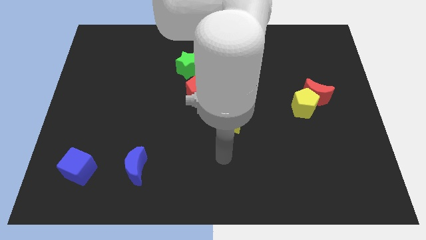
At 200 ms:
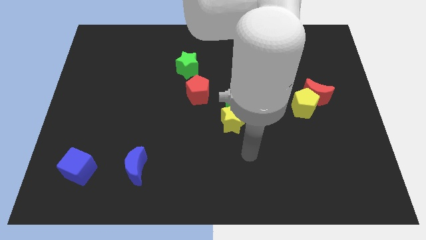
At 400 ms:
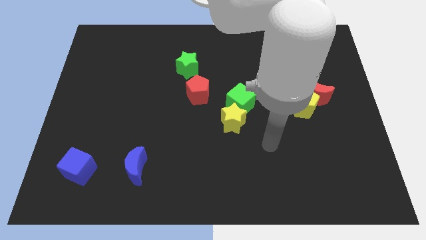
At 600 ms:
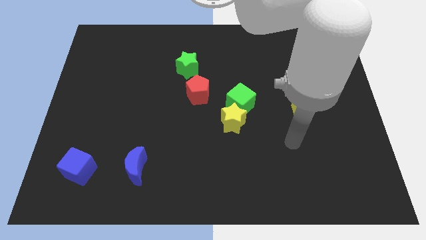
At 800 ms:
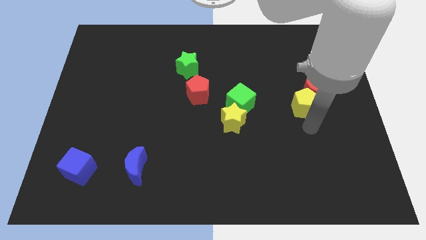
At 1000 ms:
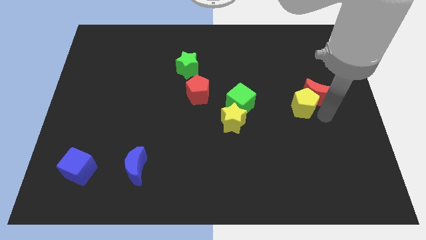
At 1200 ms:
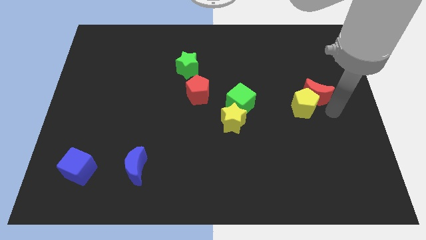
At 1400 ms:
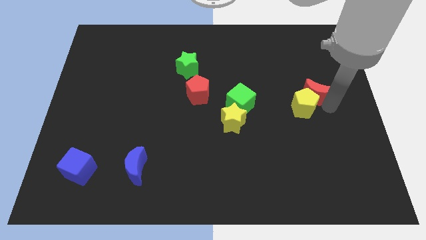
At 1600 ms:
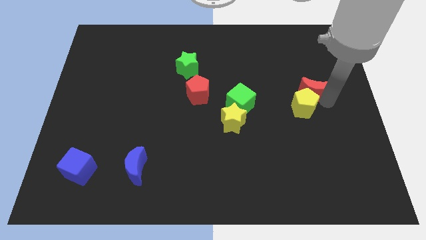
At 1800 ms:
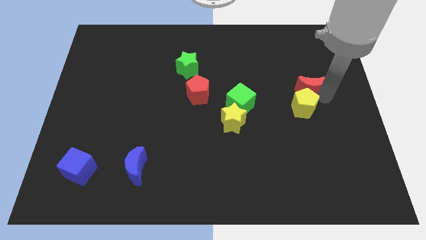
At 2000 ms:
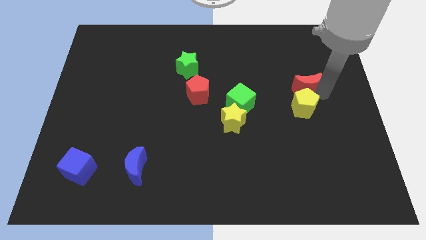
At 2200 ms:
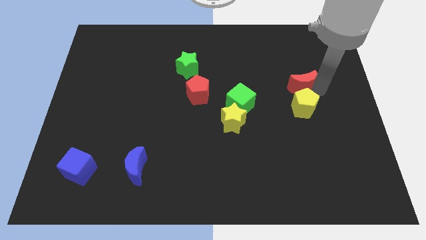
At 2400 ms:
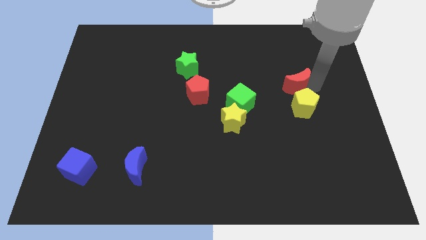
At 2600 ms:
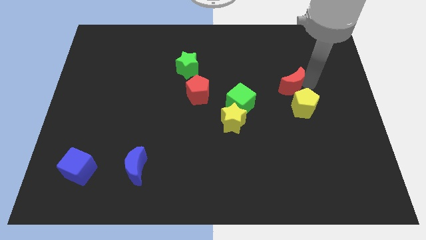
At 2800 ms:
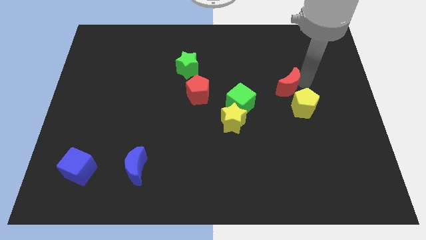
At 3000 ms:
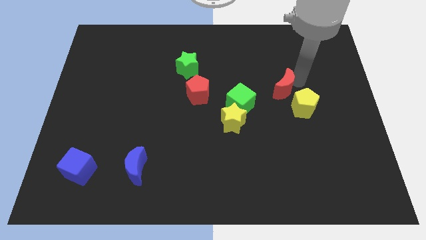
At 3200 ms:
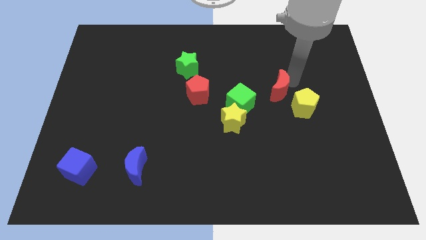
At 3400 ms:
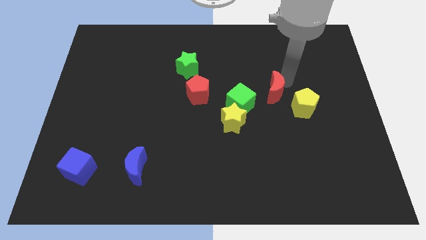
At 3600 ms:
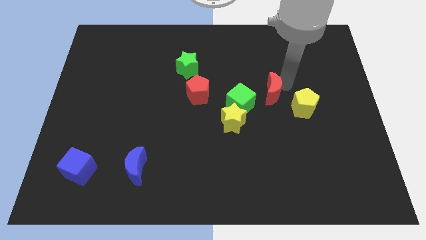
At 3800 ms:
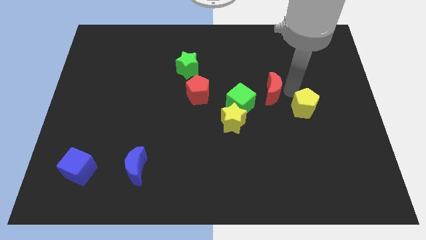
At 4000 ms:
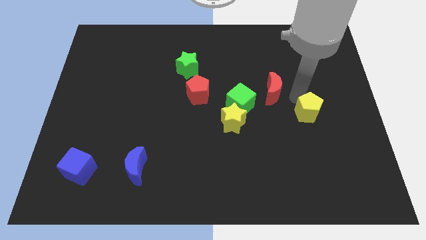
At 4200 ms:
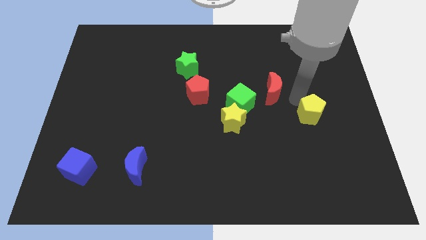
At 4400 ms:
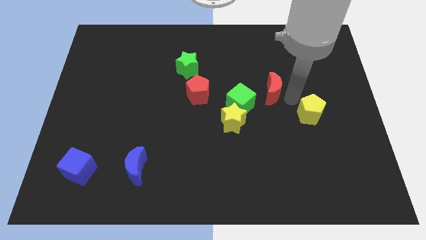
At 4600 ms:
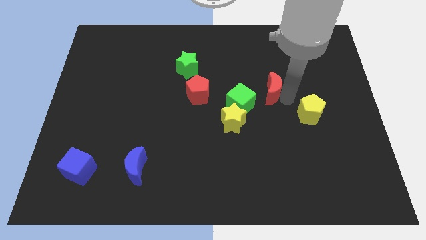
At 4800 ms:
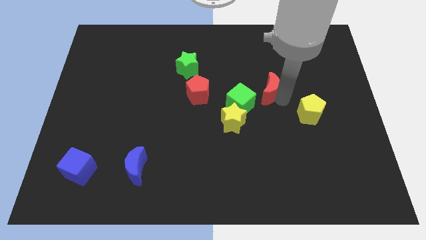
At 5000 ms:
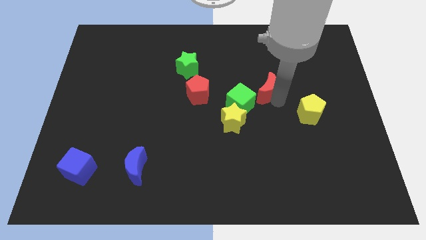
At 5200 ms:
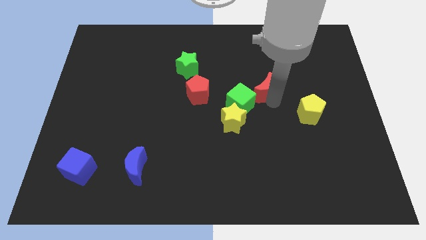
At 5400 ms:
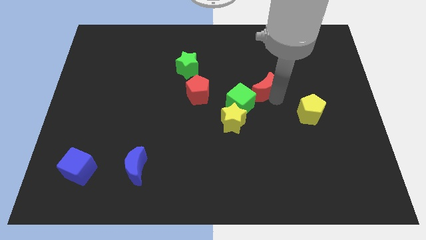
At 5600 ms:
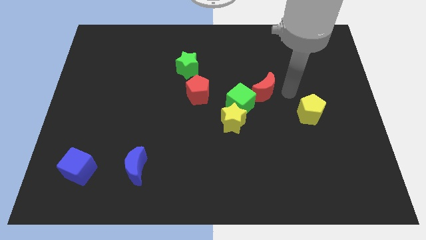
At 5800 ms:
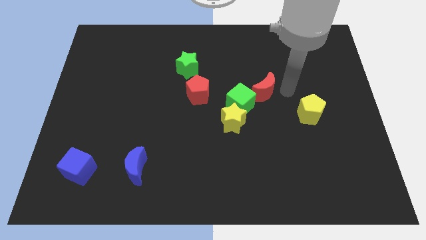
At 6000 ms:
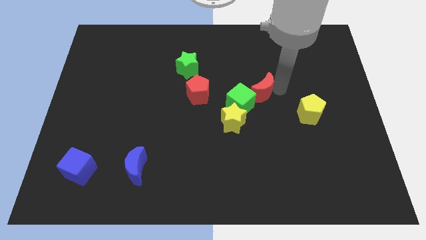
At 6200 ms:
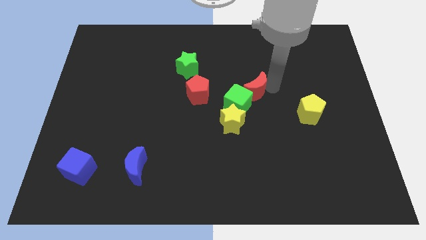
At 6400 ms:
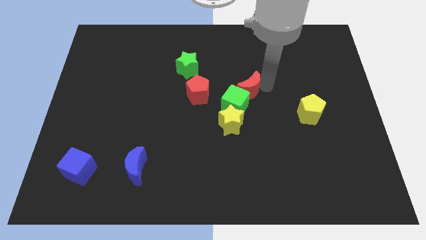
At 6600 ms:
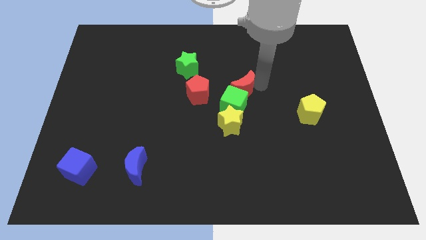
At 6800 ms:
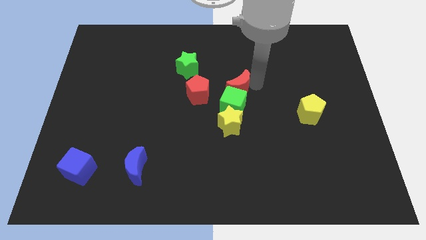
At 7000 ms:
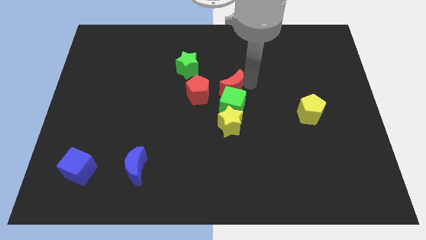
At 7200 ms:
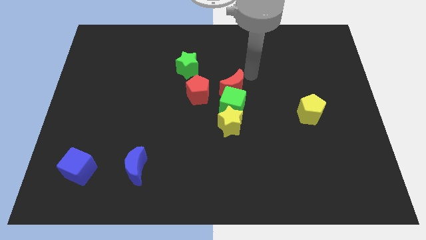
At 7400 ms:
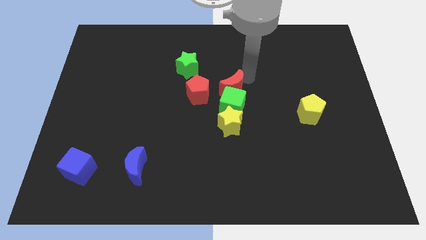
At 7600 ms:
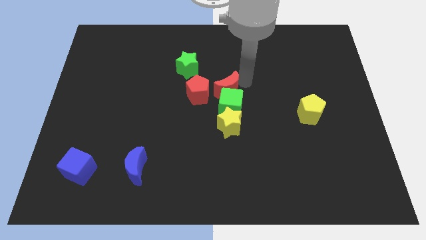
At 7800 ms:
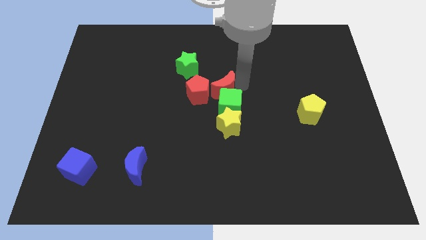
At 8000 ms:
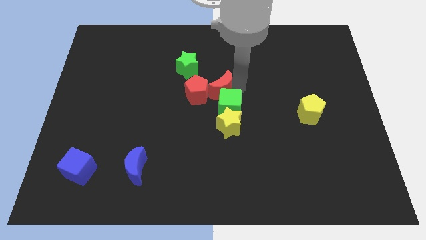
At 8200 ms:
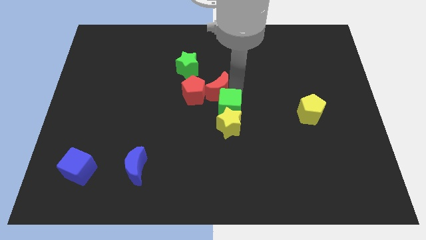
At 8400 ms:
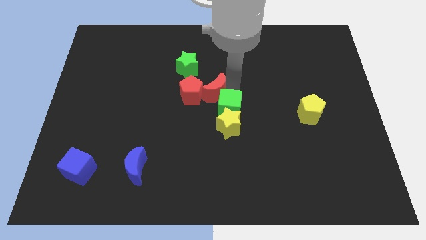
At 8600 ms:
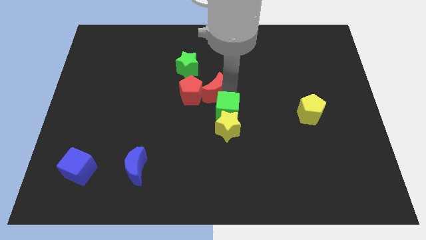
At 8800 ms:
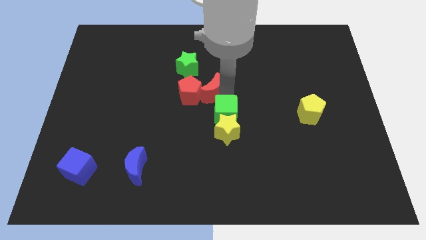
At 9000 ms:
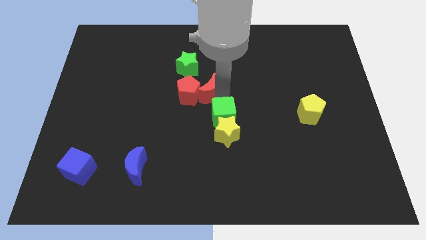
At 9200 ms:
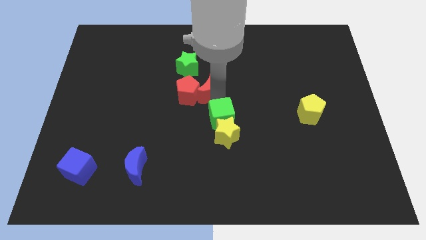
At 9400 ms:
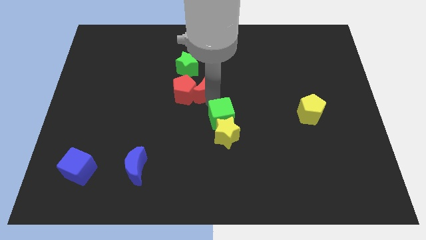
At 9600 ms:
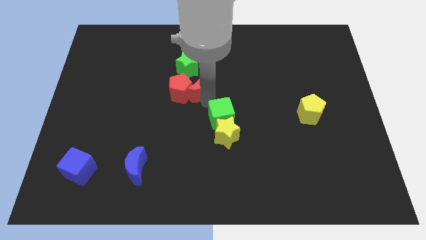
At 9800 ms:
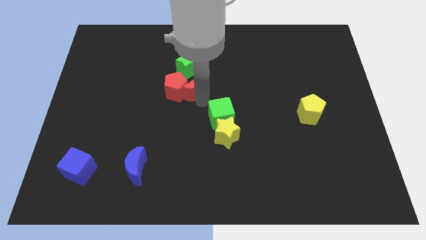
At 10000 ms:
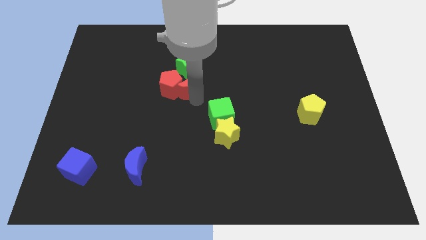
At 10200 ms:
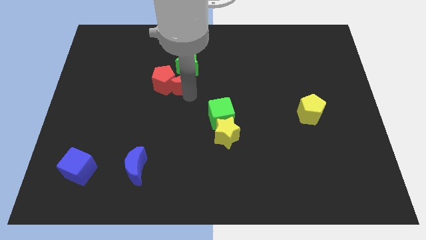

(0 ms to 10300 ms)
move the red moon diagonally down and to the left of the green star

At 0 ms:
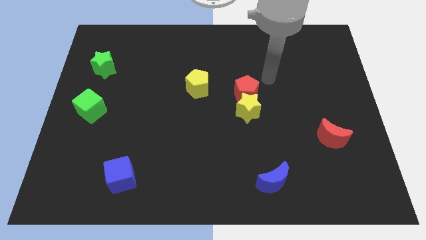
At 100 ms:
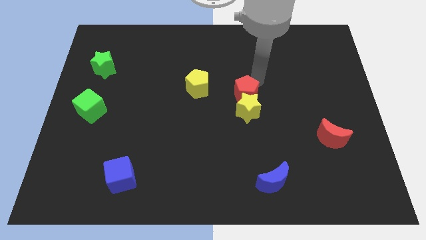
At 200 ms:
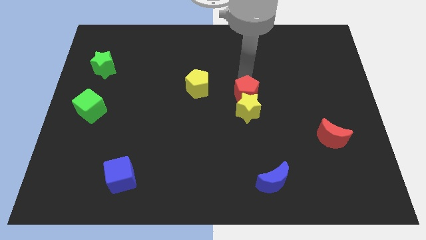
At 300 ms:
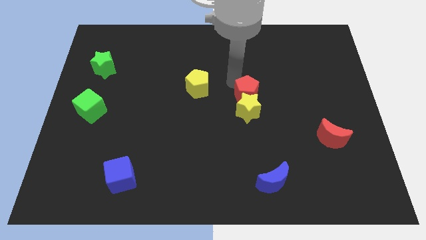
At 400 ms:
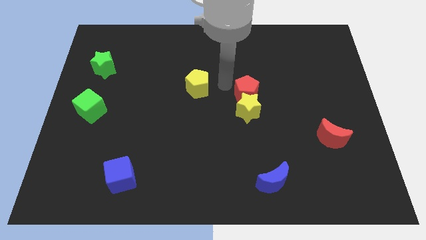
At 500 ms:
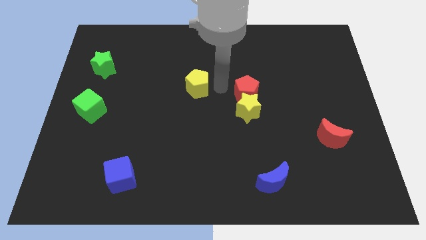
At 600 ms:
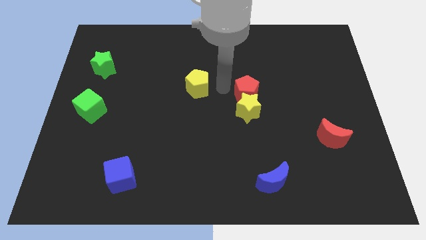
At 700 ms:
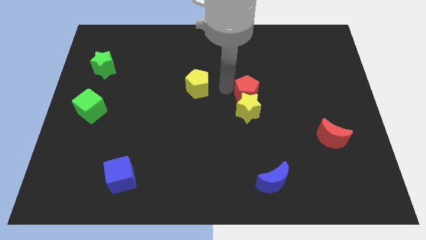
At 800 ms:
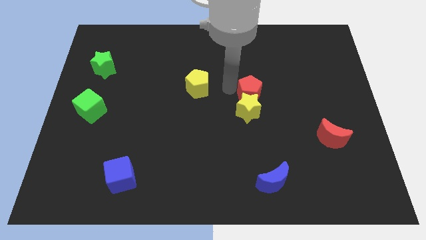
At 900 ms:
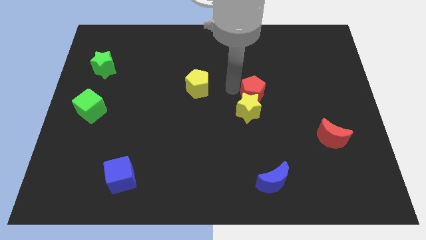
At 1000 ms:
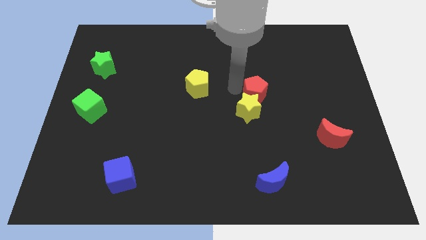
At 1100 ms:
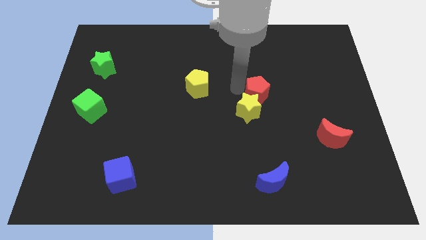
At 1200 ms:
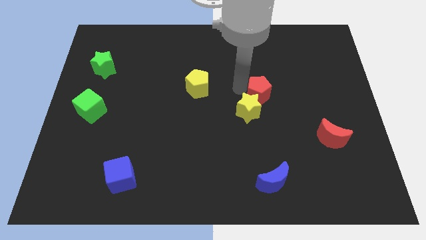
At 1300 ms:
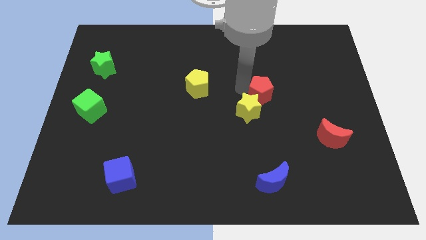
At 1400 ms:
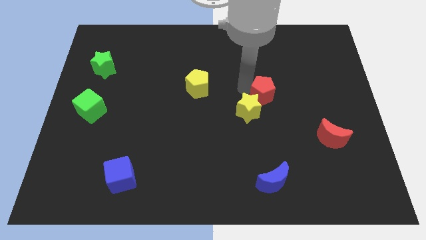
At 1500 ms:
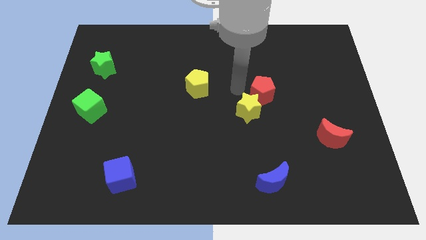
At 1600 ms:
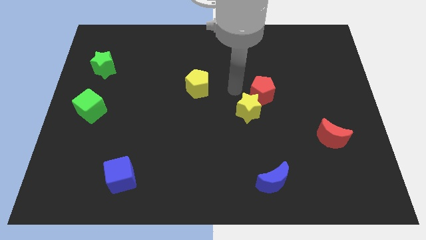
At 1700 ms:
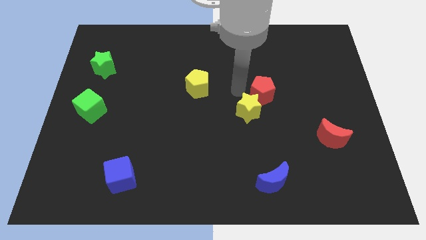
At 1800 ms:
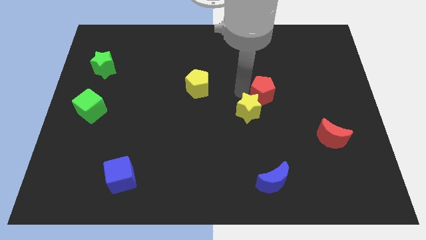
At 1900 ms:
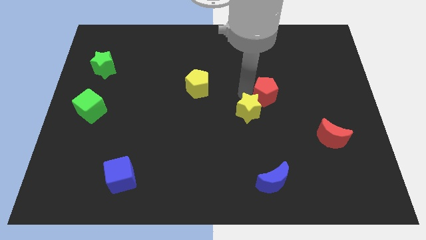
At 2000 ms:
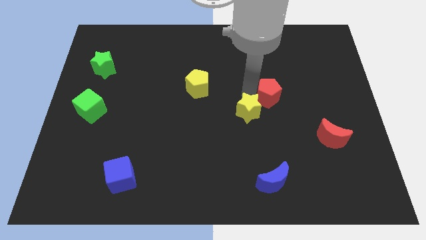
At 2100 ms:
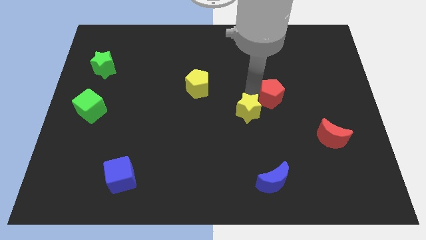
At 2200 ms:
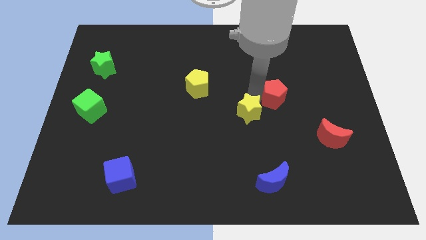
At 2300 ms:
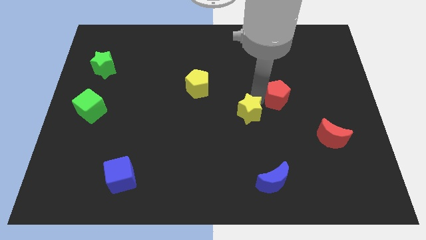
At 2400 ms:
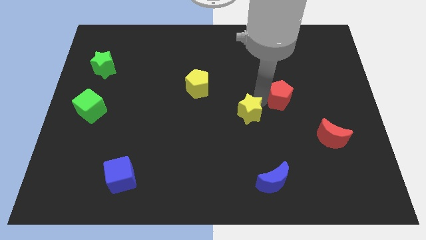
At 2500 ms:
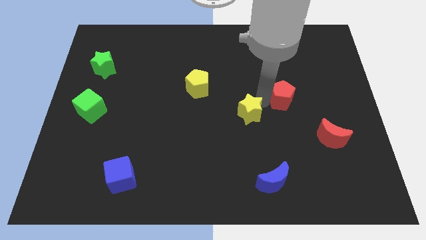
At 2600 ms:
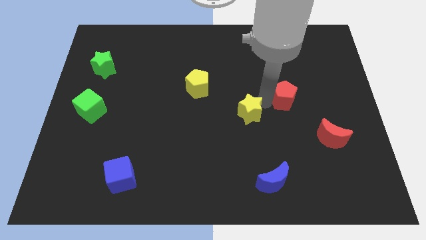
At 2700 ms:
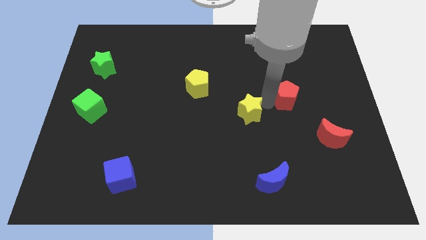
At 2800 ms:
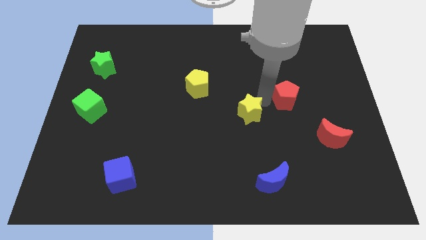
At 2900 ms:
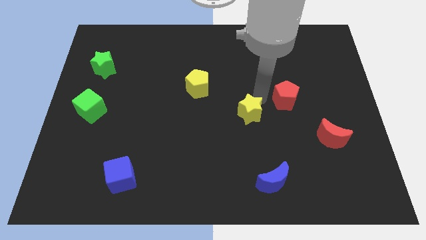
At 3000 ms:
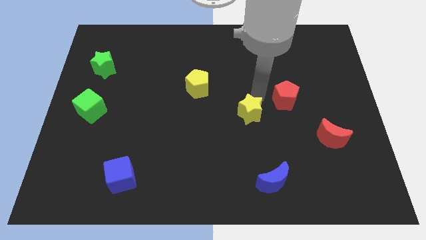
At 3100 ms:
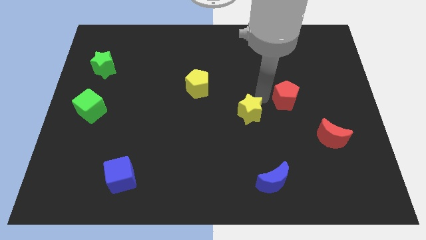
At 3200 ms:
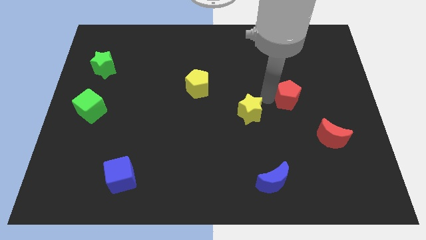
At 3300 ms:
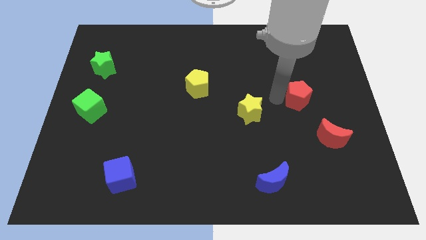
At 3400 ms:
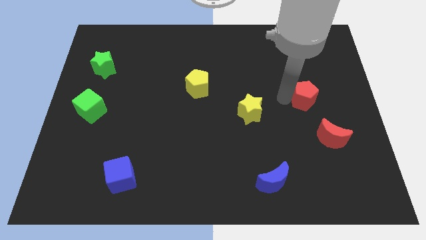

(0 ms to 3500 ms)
push the red pentagon above the red moon
